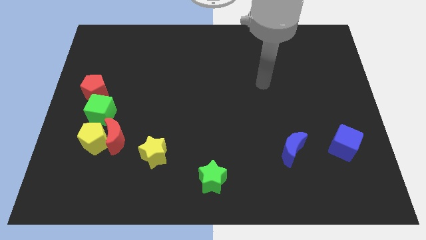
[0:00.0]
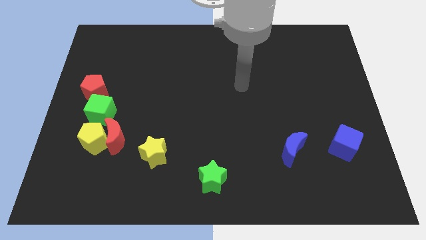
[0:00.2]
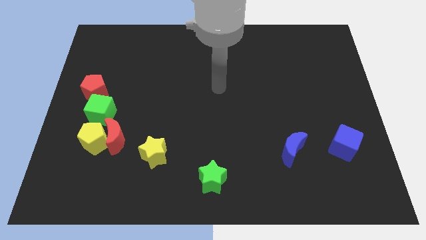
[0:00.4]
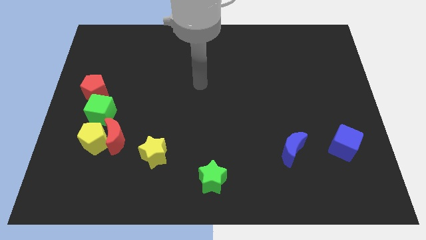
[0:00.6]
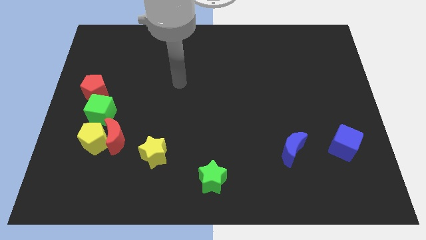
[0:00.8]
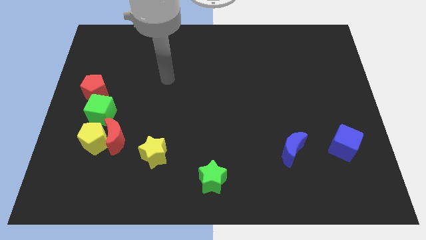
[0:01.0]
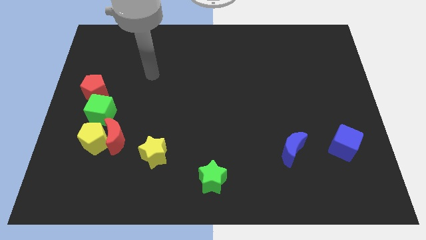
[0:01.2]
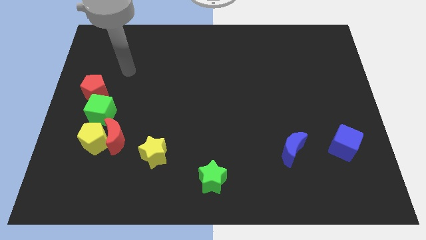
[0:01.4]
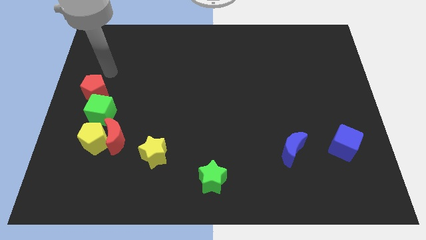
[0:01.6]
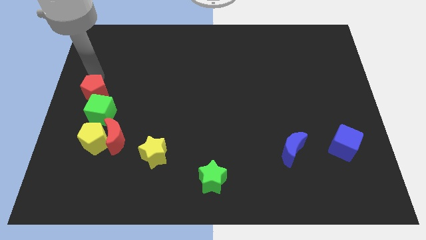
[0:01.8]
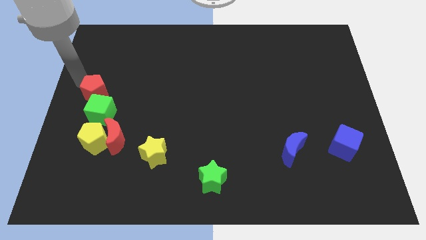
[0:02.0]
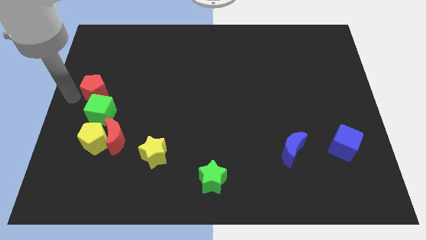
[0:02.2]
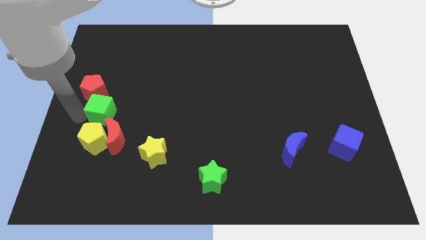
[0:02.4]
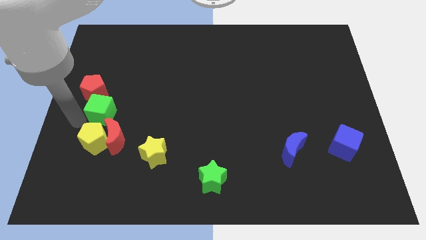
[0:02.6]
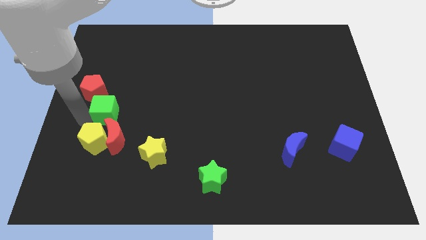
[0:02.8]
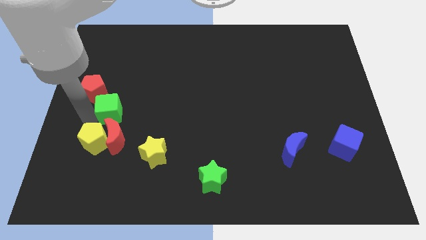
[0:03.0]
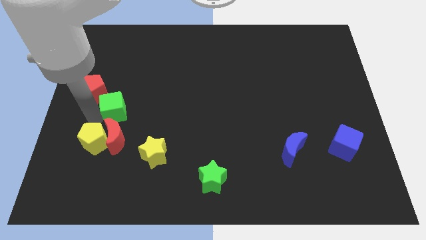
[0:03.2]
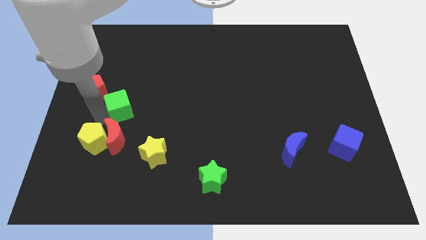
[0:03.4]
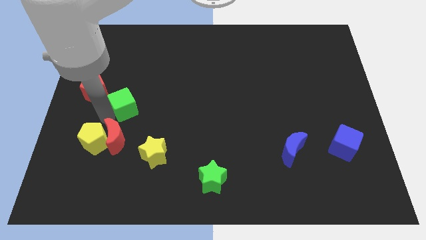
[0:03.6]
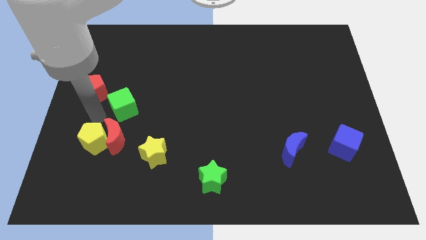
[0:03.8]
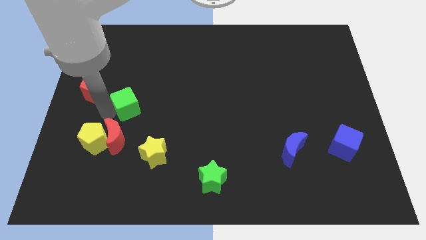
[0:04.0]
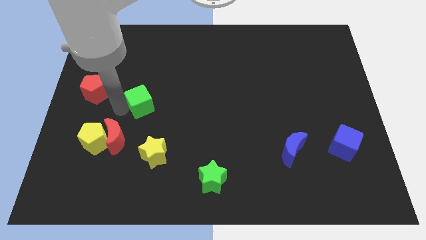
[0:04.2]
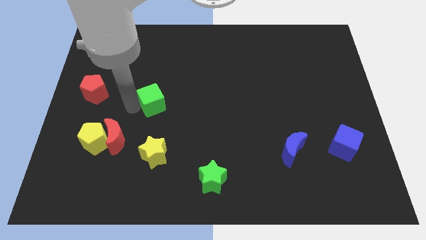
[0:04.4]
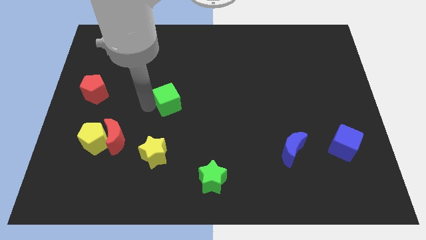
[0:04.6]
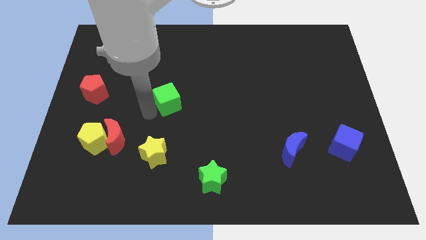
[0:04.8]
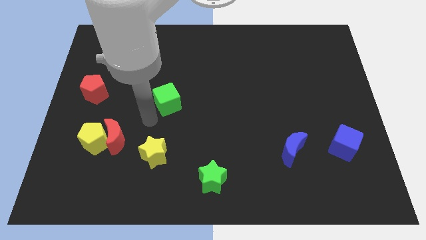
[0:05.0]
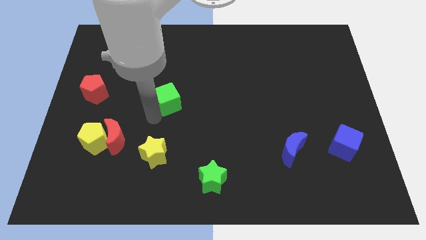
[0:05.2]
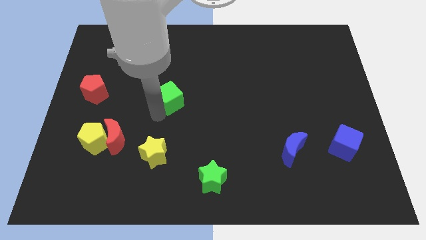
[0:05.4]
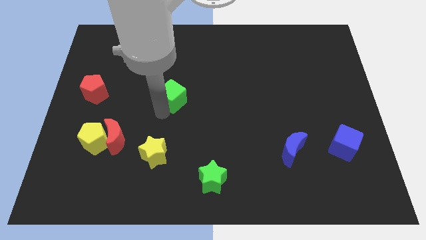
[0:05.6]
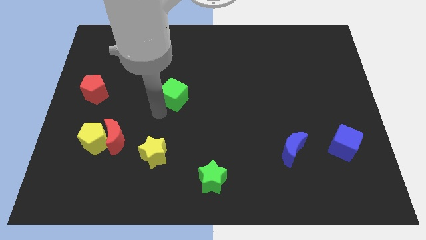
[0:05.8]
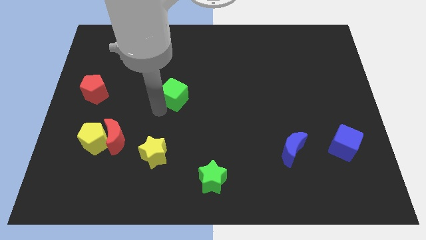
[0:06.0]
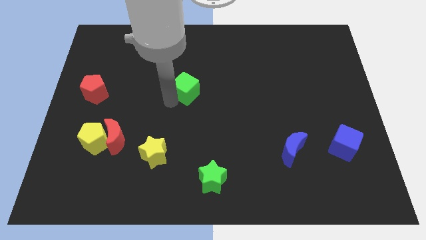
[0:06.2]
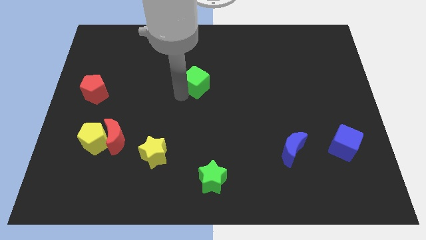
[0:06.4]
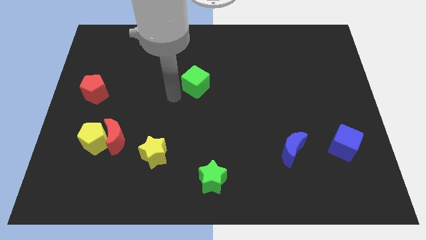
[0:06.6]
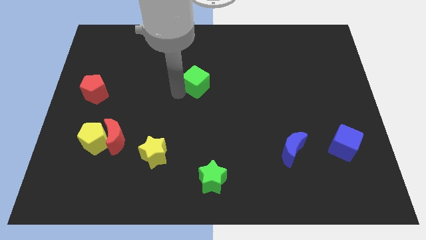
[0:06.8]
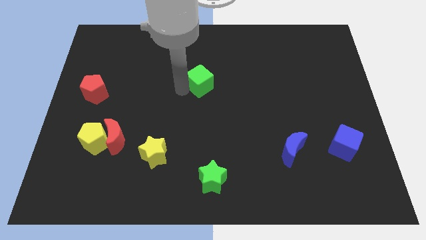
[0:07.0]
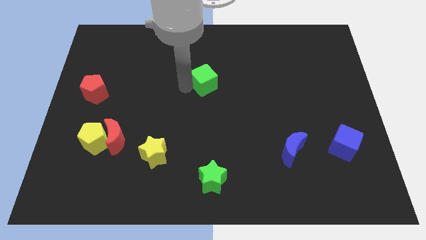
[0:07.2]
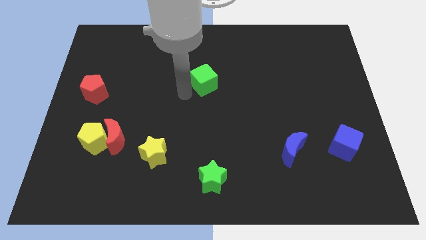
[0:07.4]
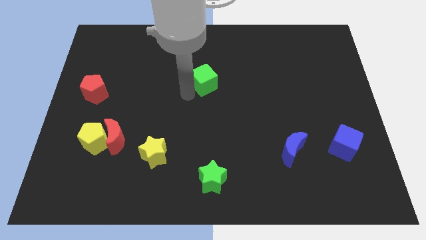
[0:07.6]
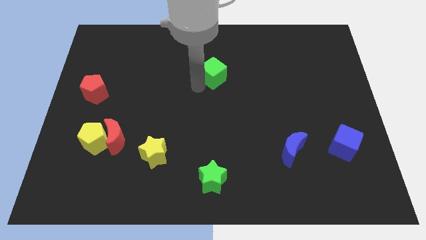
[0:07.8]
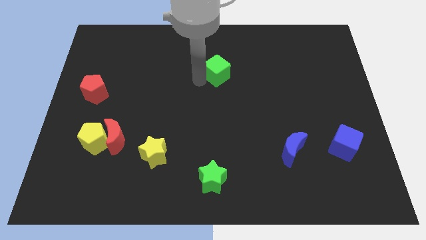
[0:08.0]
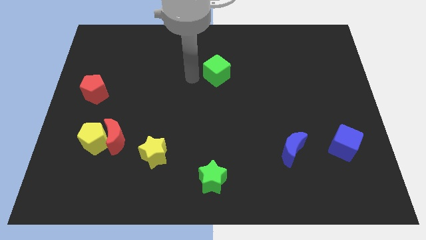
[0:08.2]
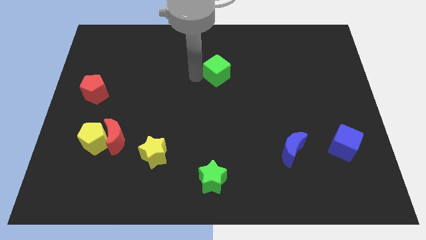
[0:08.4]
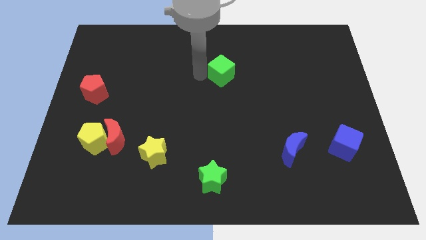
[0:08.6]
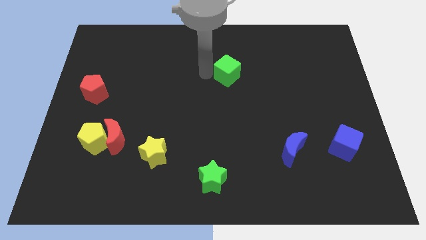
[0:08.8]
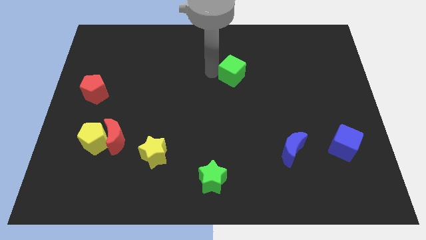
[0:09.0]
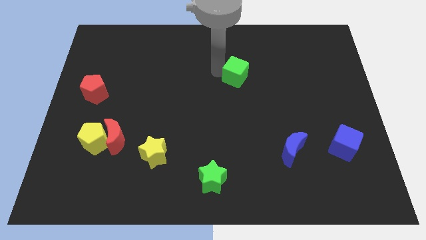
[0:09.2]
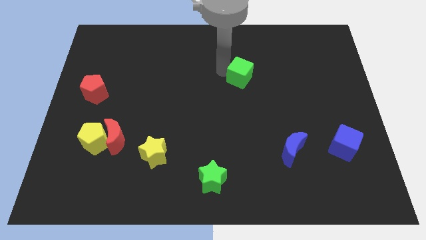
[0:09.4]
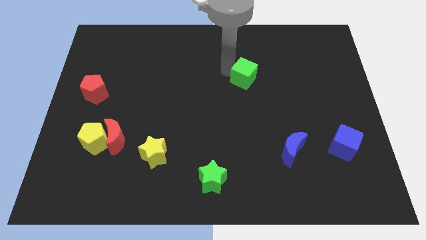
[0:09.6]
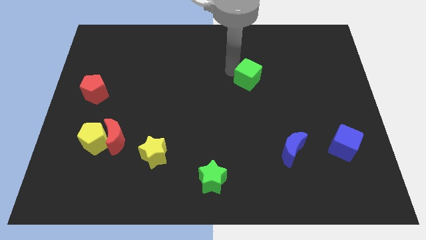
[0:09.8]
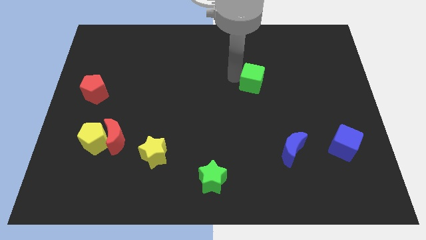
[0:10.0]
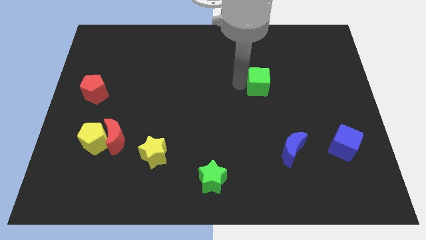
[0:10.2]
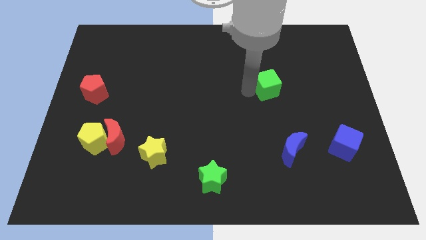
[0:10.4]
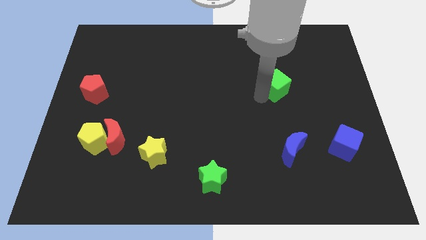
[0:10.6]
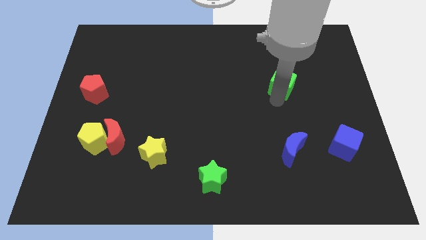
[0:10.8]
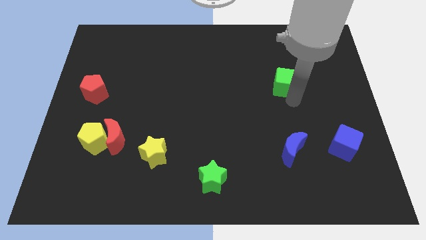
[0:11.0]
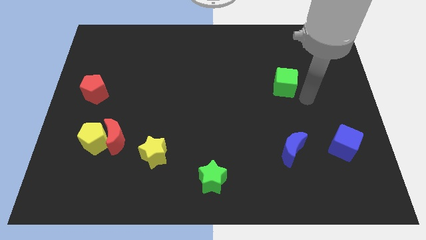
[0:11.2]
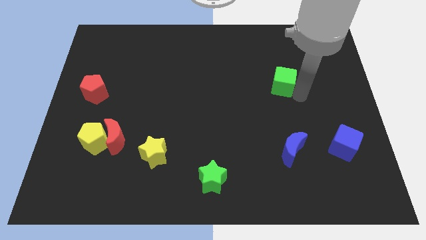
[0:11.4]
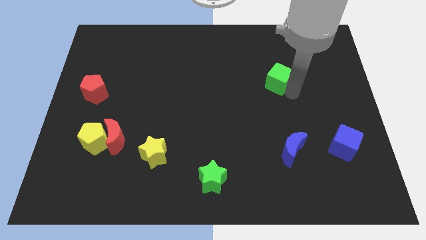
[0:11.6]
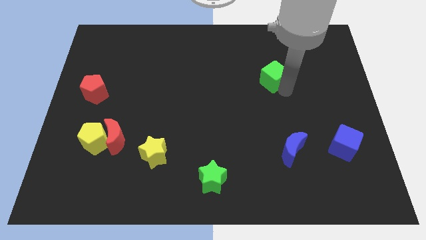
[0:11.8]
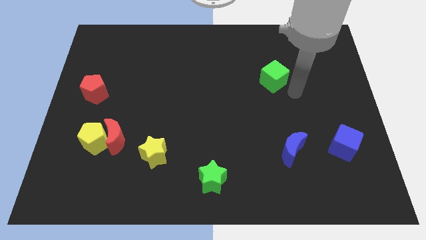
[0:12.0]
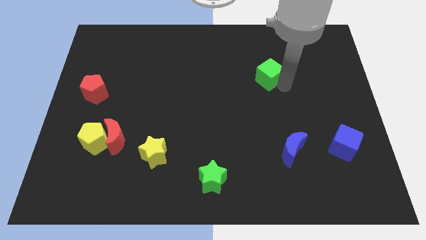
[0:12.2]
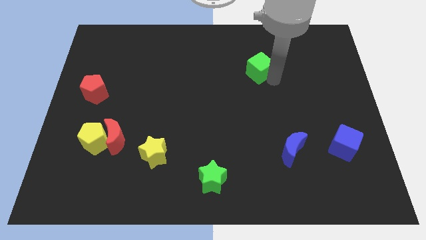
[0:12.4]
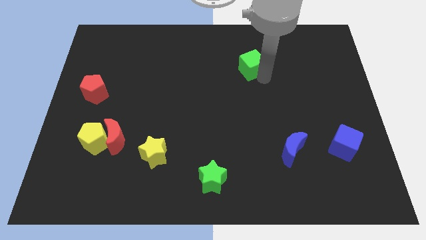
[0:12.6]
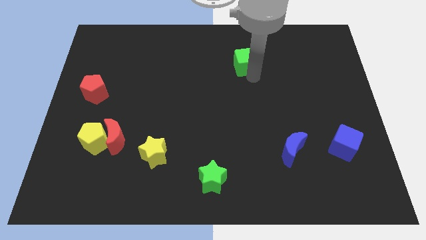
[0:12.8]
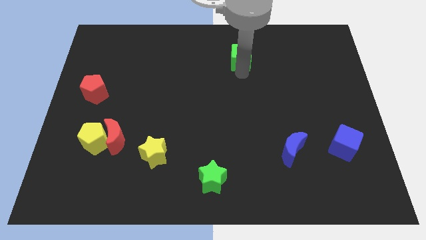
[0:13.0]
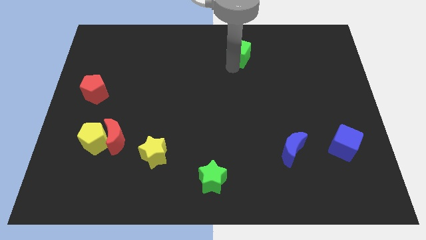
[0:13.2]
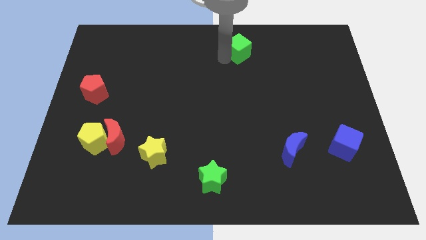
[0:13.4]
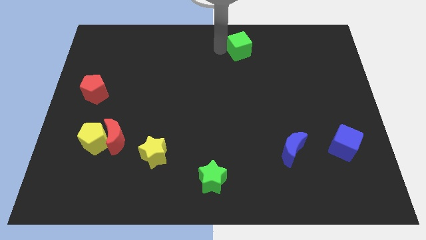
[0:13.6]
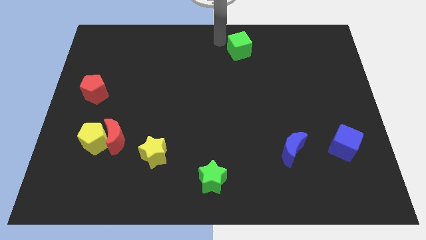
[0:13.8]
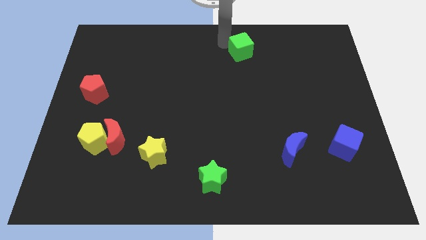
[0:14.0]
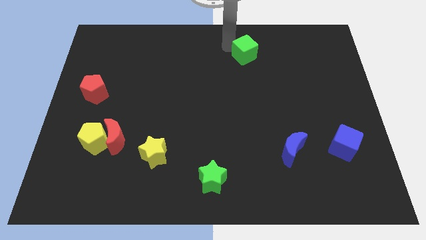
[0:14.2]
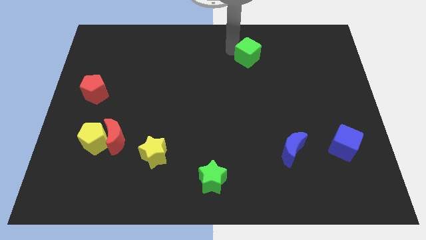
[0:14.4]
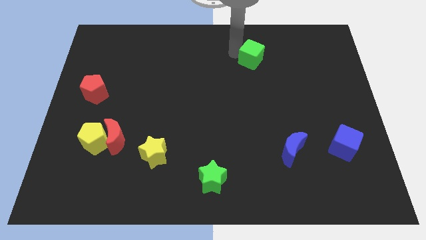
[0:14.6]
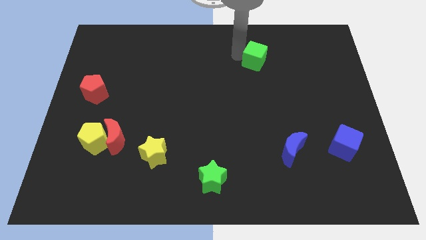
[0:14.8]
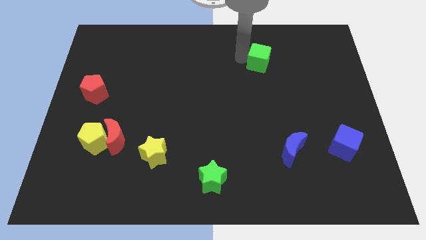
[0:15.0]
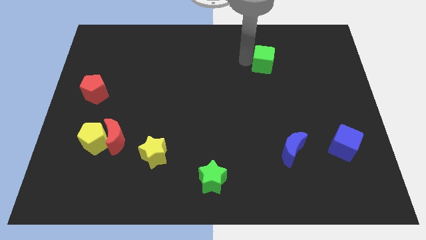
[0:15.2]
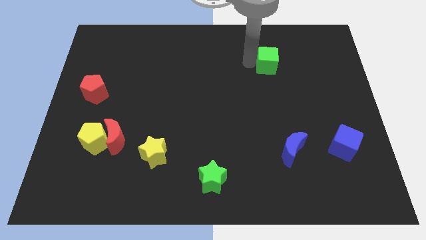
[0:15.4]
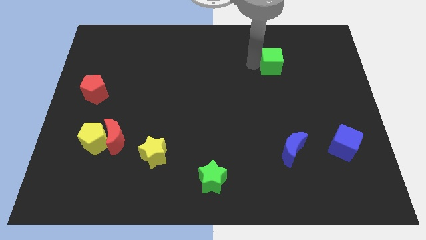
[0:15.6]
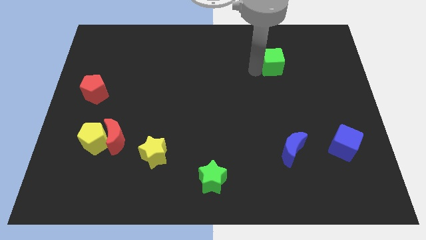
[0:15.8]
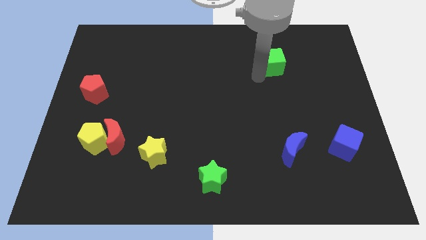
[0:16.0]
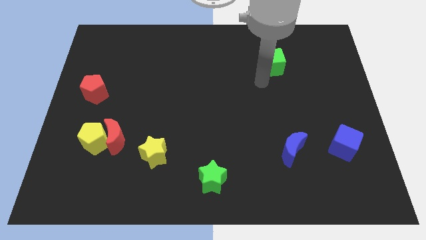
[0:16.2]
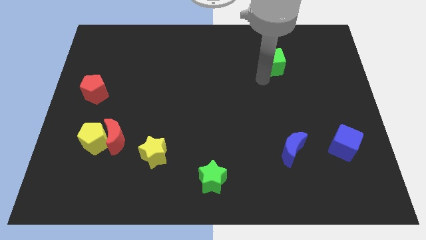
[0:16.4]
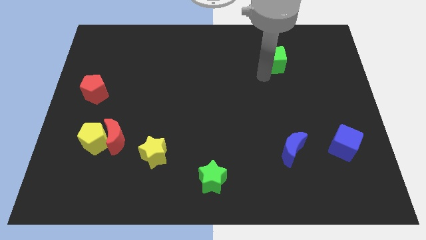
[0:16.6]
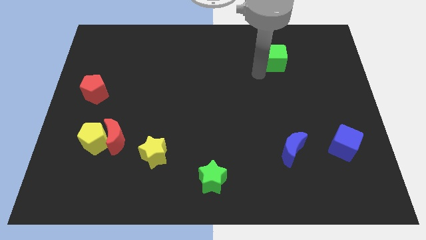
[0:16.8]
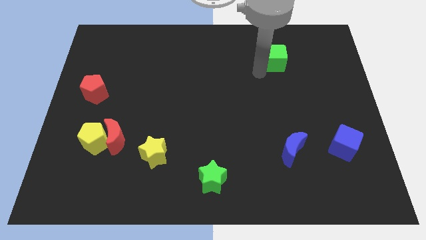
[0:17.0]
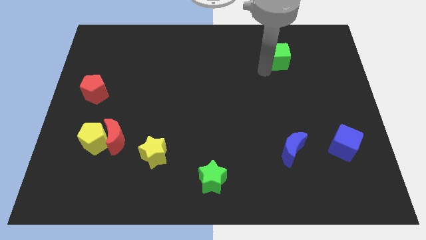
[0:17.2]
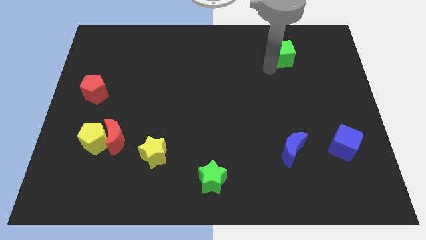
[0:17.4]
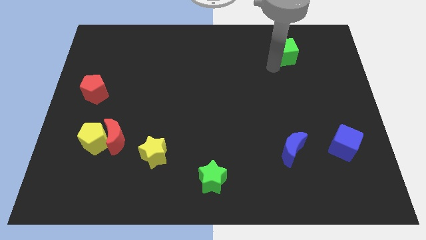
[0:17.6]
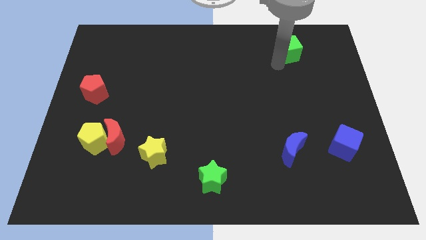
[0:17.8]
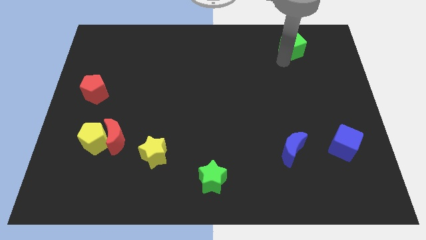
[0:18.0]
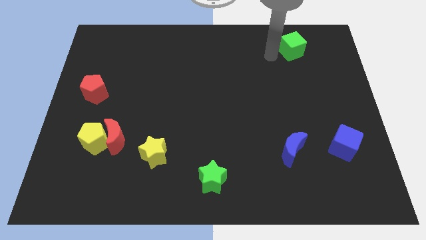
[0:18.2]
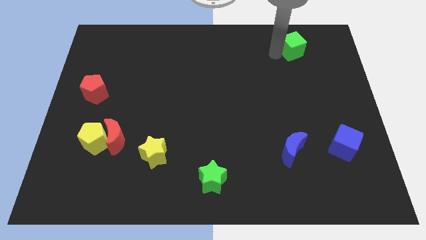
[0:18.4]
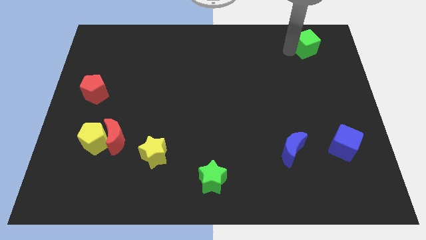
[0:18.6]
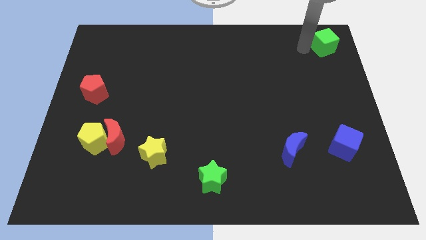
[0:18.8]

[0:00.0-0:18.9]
put the green cube to the top right corner
